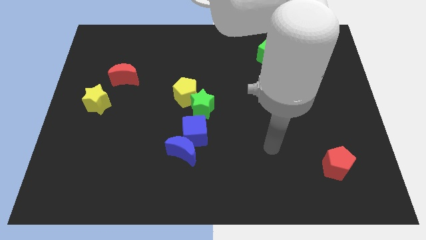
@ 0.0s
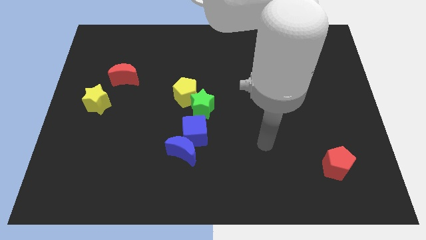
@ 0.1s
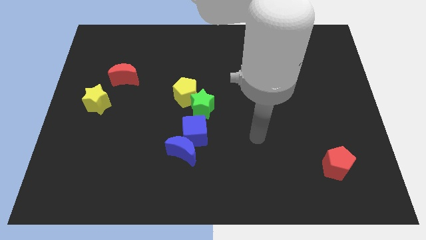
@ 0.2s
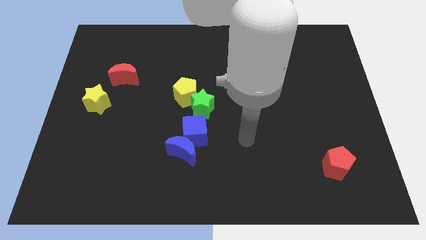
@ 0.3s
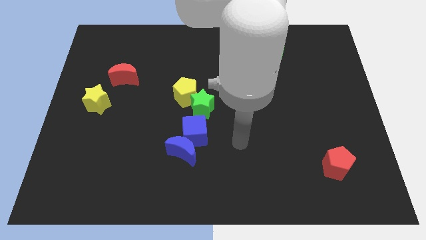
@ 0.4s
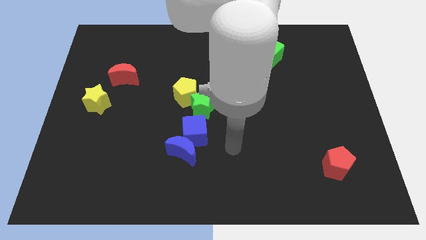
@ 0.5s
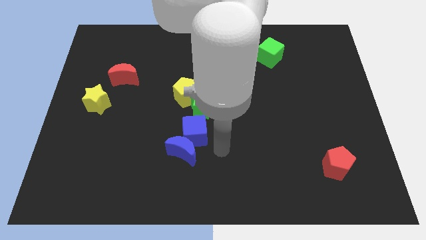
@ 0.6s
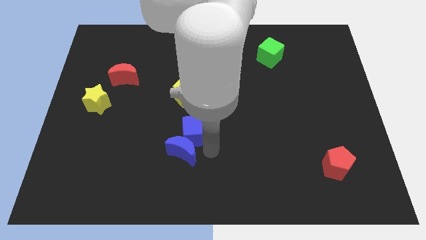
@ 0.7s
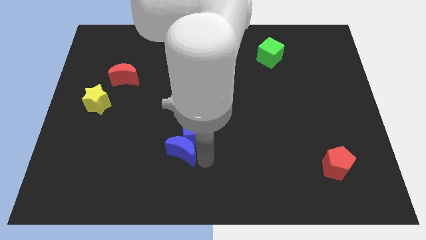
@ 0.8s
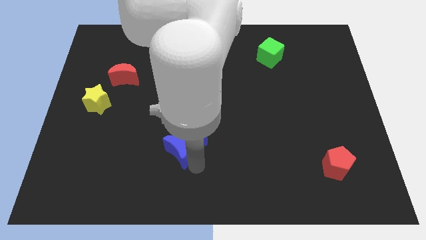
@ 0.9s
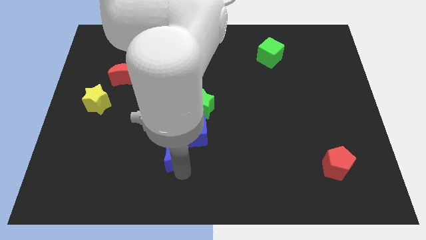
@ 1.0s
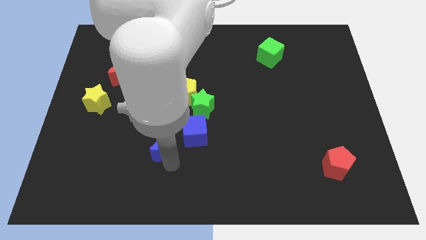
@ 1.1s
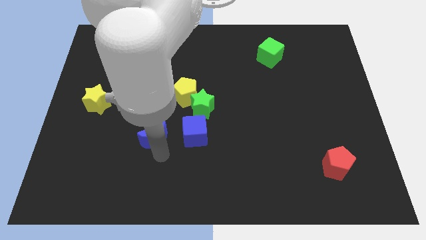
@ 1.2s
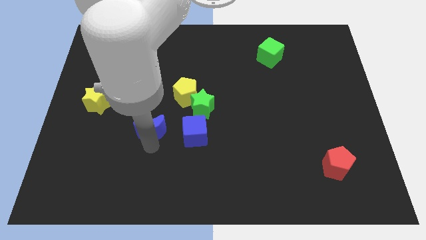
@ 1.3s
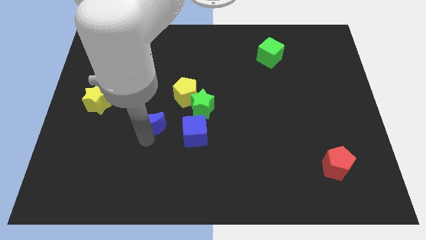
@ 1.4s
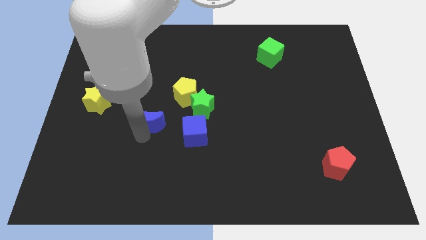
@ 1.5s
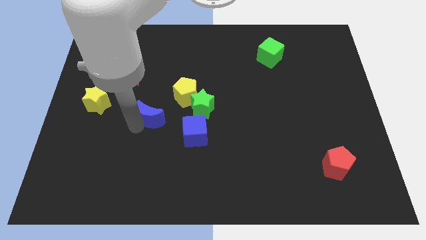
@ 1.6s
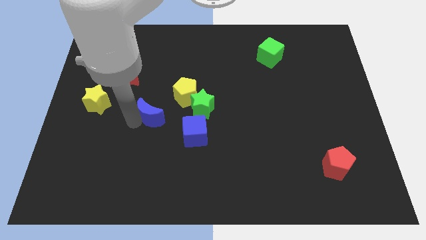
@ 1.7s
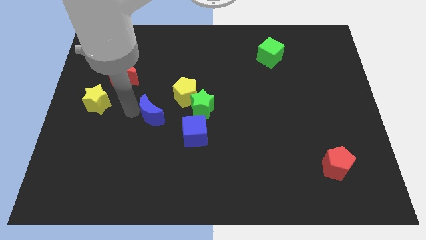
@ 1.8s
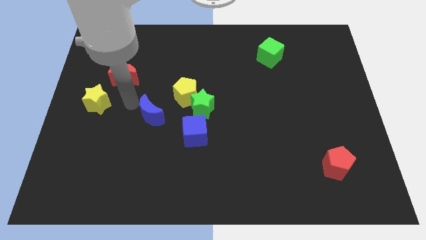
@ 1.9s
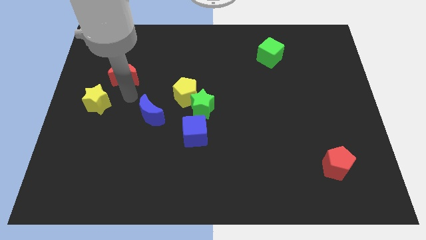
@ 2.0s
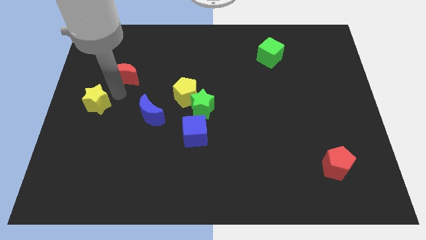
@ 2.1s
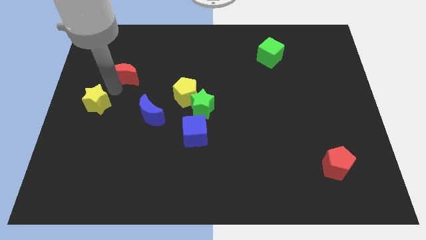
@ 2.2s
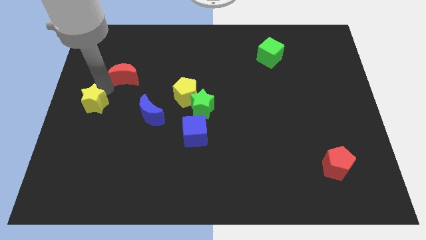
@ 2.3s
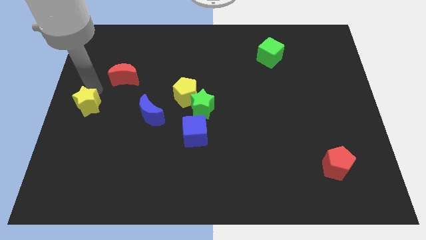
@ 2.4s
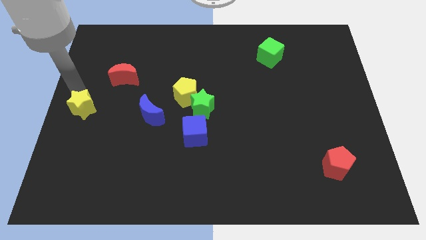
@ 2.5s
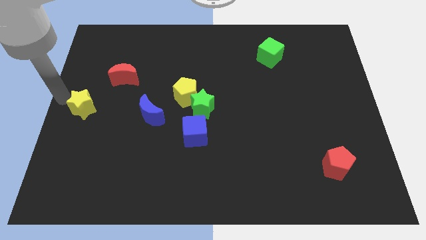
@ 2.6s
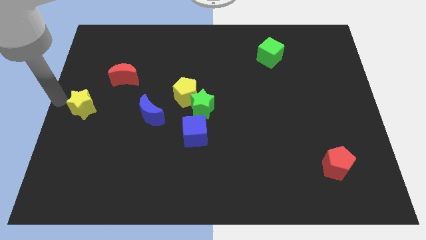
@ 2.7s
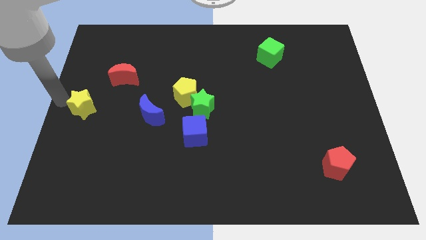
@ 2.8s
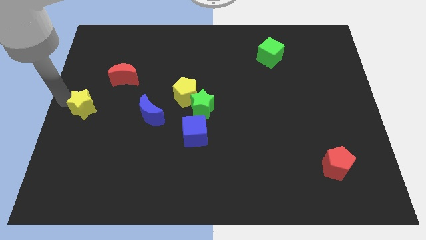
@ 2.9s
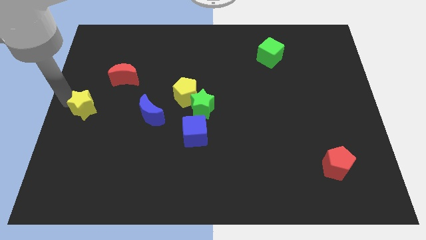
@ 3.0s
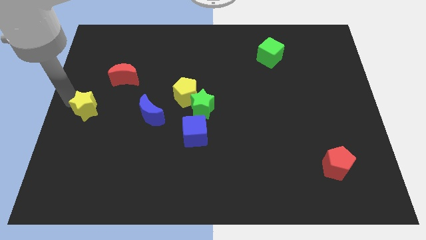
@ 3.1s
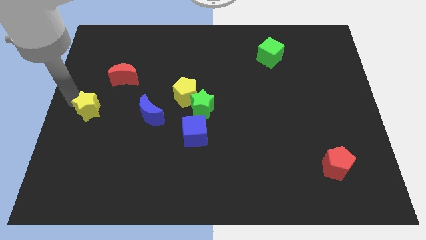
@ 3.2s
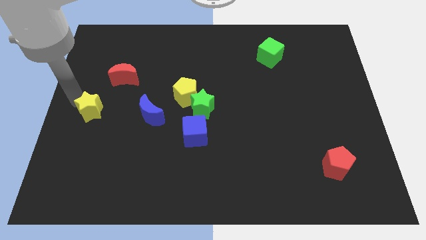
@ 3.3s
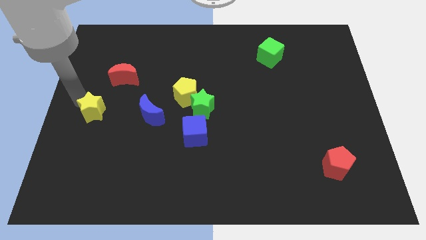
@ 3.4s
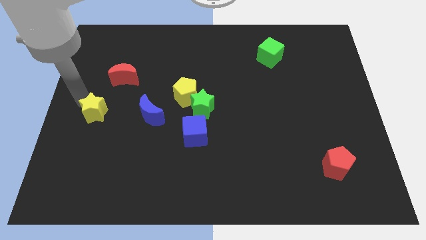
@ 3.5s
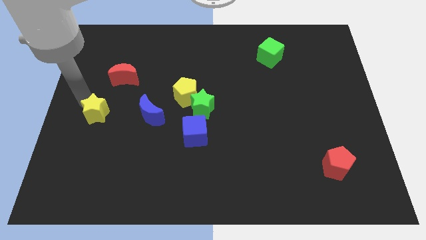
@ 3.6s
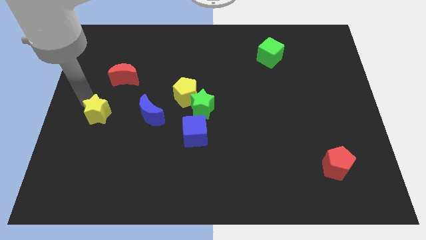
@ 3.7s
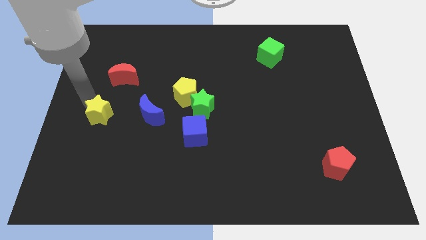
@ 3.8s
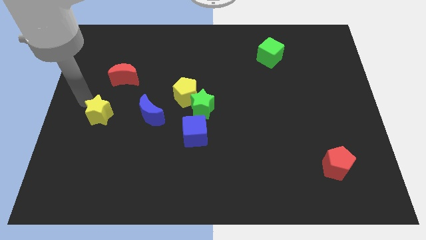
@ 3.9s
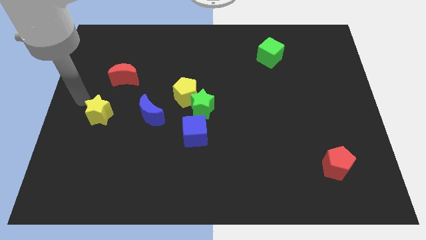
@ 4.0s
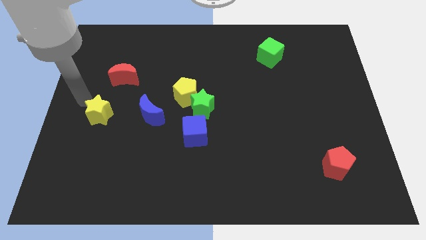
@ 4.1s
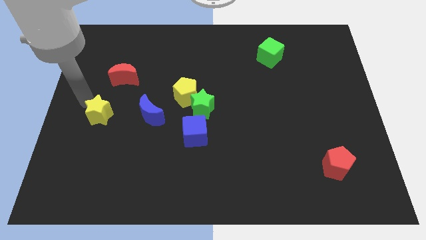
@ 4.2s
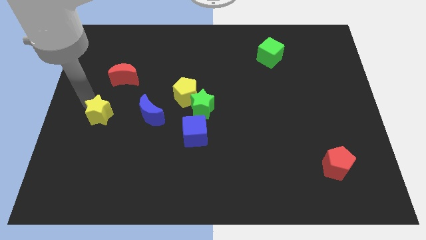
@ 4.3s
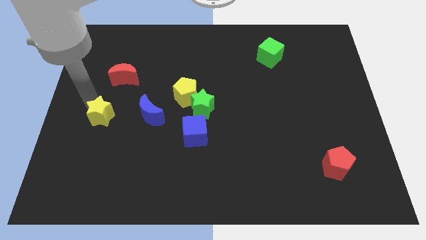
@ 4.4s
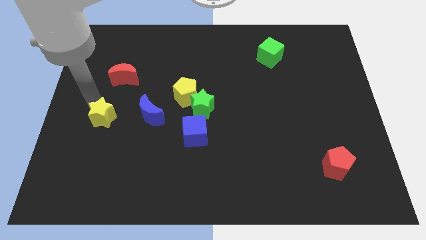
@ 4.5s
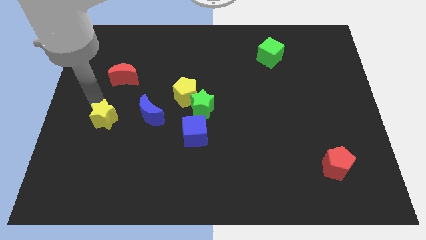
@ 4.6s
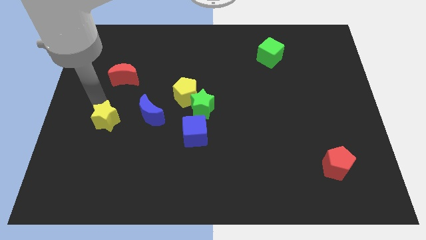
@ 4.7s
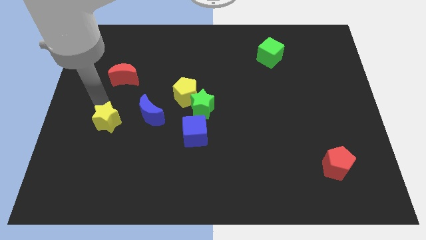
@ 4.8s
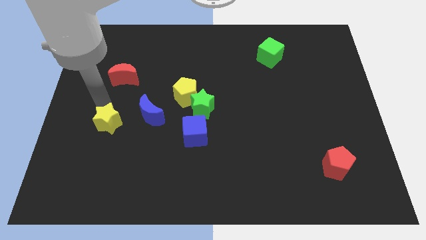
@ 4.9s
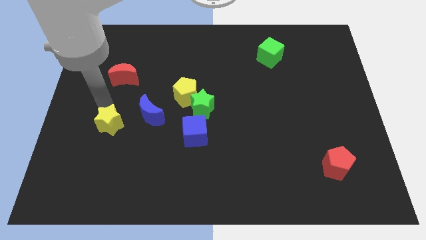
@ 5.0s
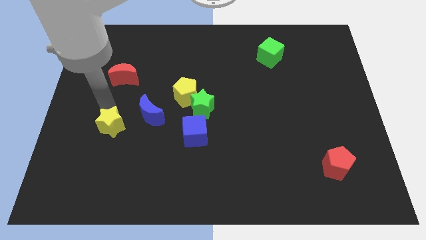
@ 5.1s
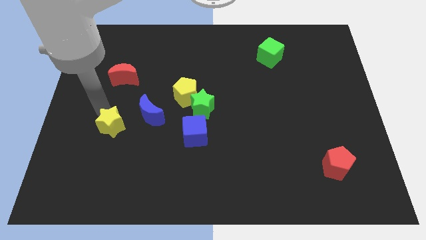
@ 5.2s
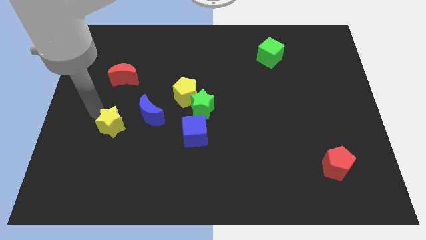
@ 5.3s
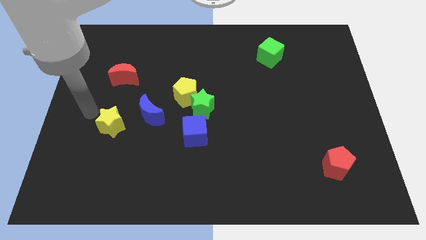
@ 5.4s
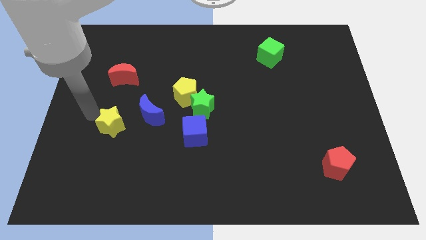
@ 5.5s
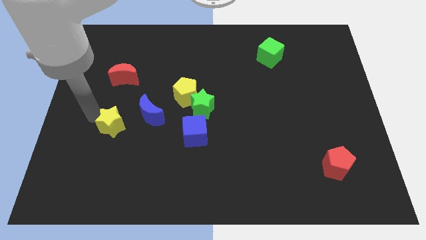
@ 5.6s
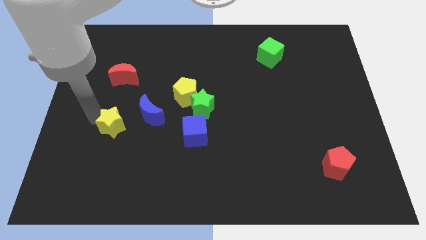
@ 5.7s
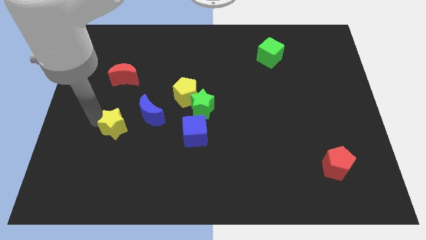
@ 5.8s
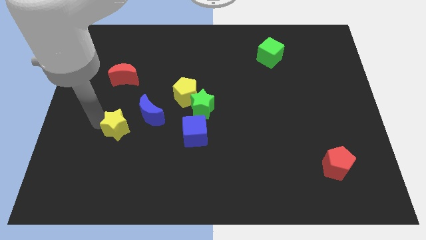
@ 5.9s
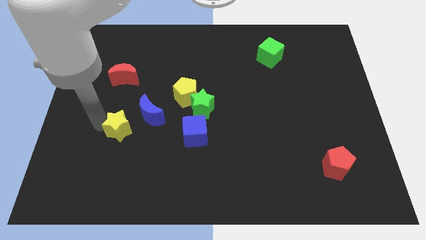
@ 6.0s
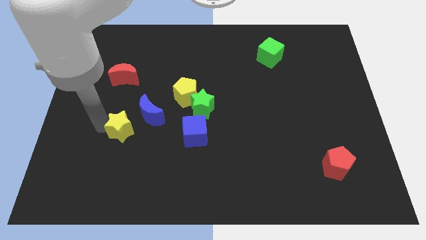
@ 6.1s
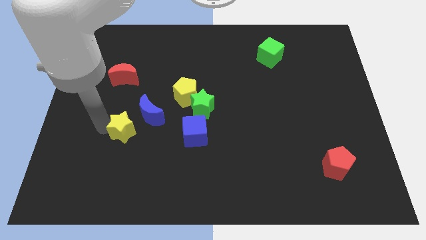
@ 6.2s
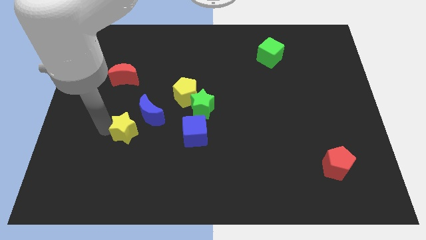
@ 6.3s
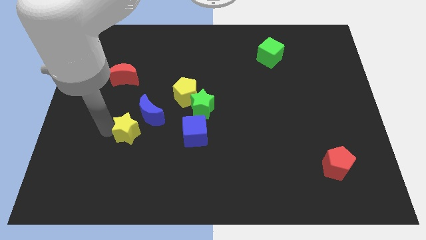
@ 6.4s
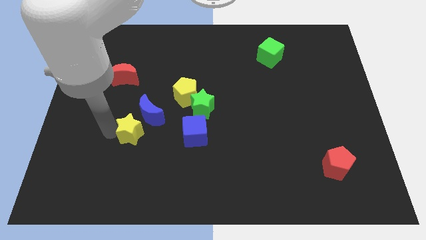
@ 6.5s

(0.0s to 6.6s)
move the yellow star to the blue moon
